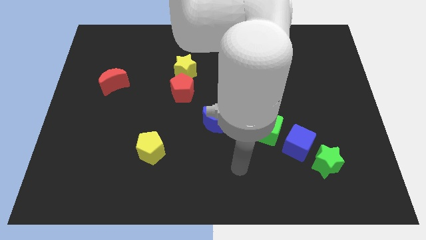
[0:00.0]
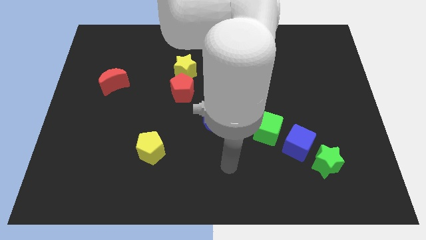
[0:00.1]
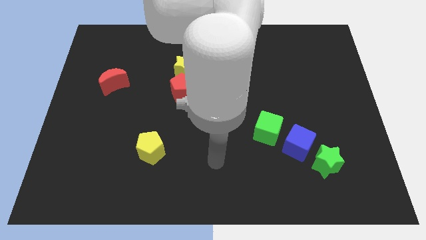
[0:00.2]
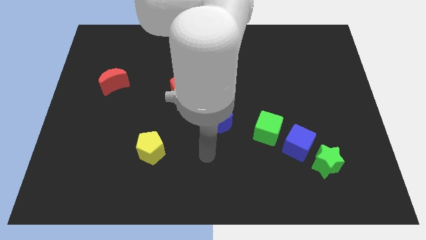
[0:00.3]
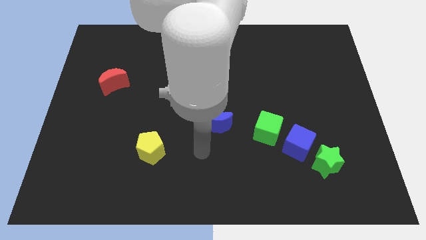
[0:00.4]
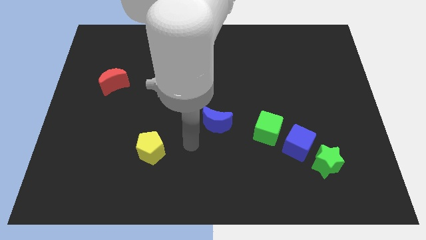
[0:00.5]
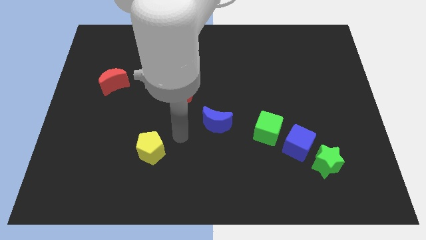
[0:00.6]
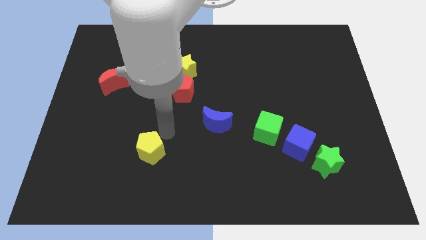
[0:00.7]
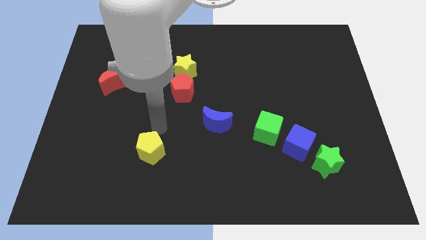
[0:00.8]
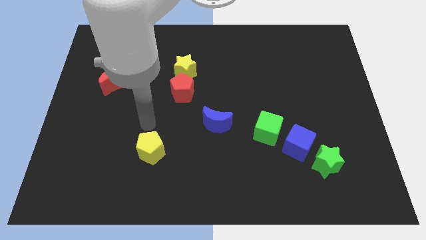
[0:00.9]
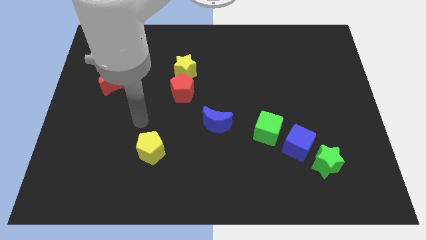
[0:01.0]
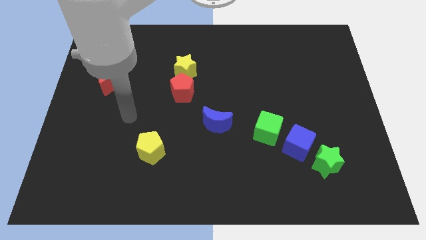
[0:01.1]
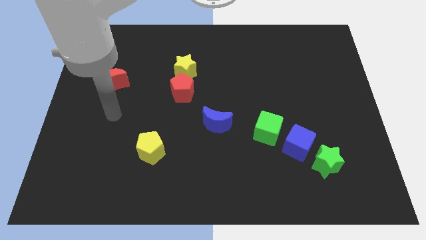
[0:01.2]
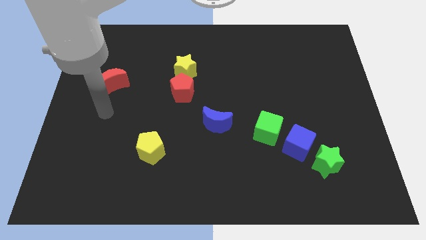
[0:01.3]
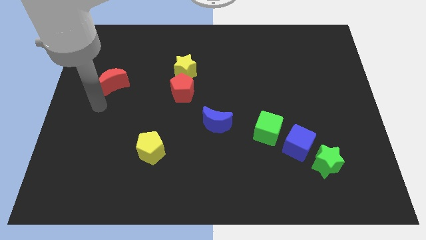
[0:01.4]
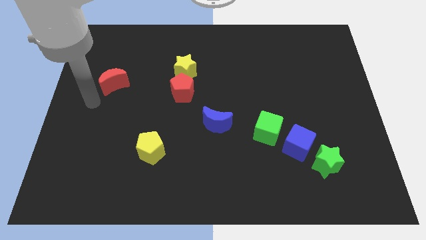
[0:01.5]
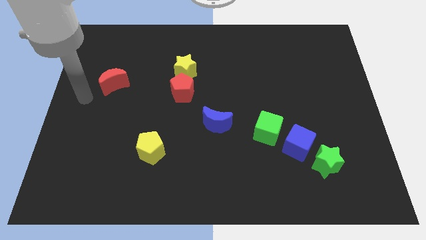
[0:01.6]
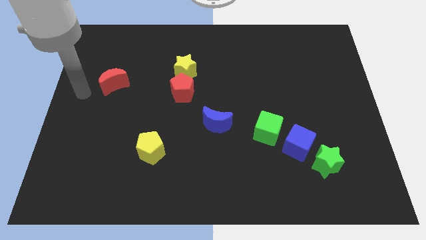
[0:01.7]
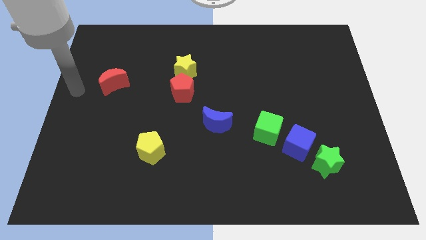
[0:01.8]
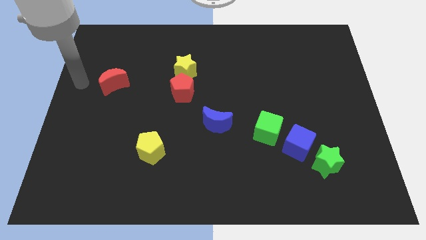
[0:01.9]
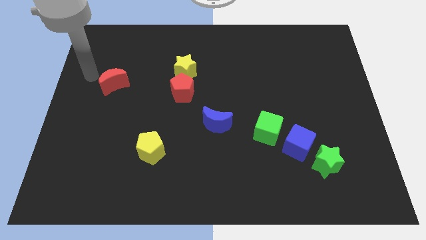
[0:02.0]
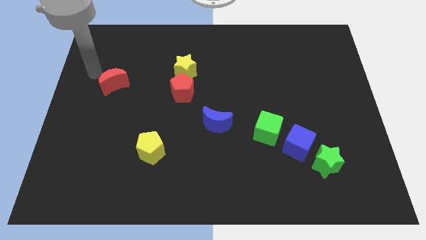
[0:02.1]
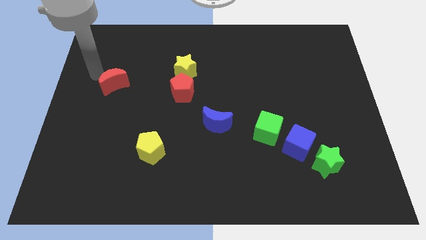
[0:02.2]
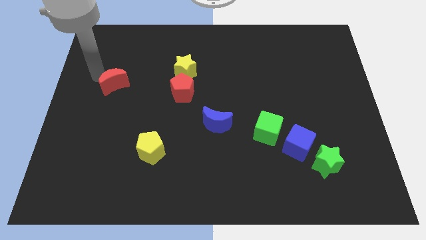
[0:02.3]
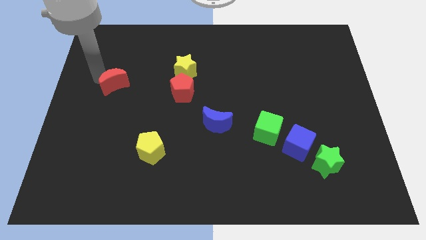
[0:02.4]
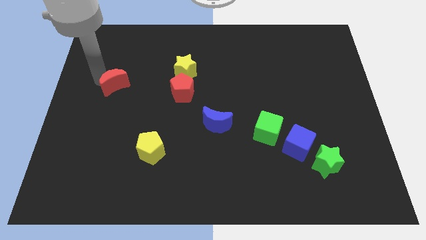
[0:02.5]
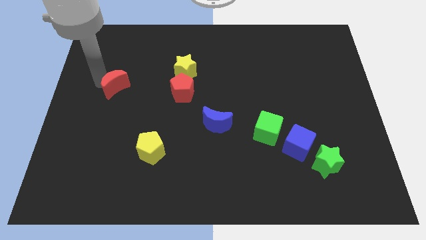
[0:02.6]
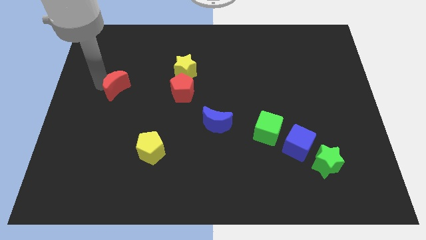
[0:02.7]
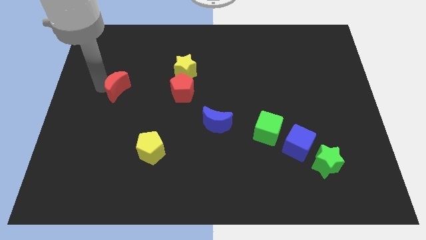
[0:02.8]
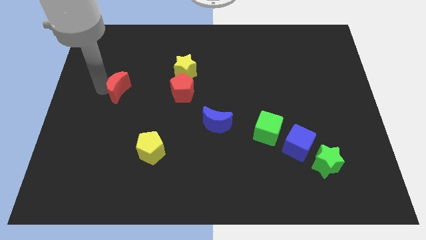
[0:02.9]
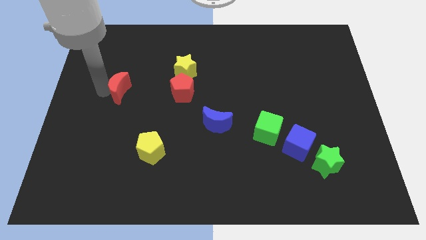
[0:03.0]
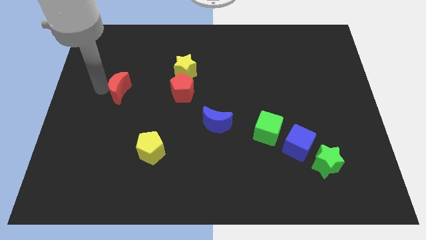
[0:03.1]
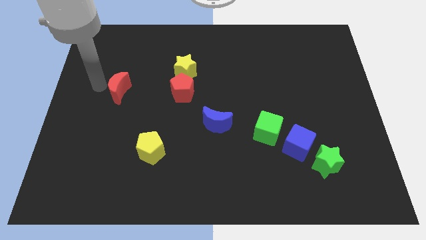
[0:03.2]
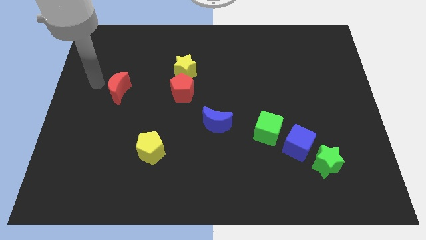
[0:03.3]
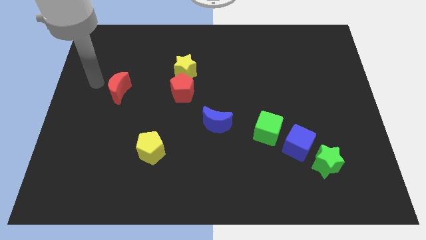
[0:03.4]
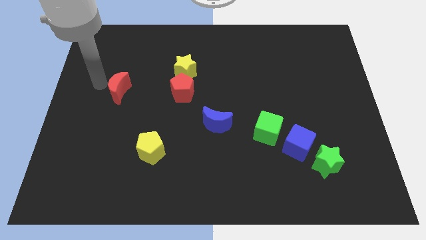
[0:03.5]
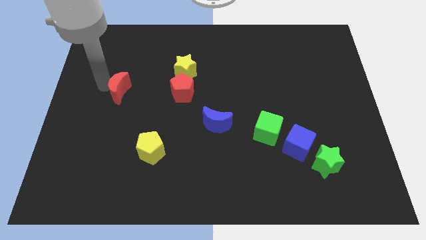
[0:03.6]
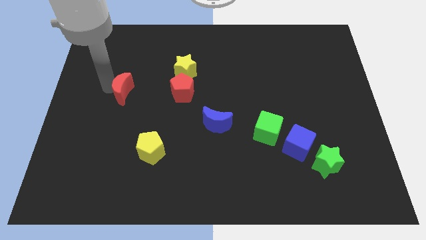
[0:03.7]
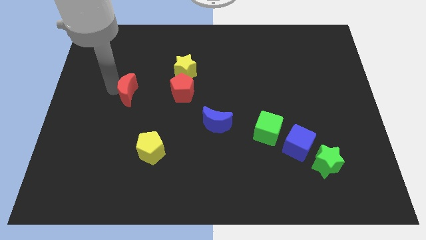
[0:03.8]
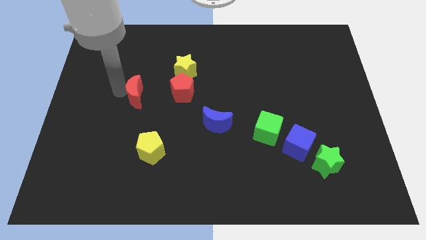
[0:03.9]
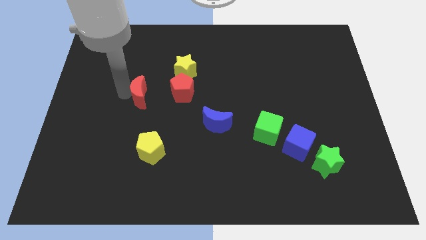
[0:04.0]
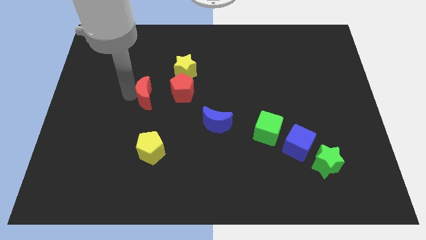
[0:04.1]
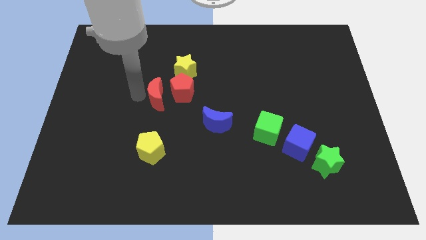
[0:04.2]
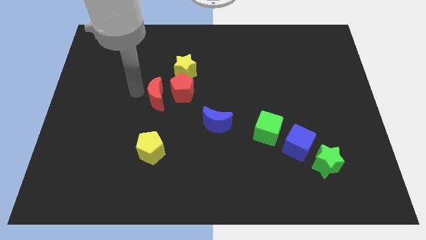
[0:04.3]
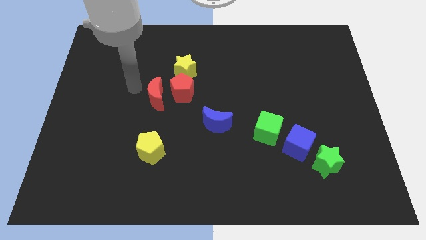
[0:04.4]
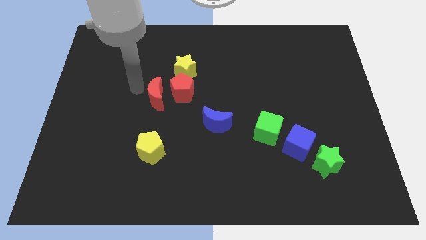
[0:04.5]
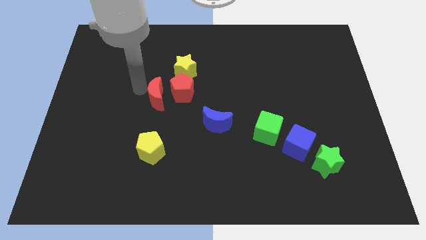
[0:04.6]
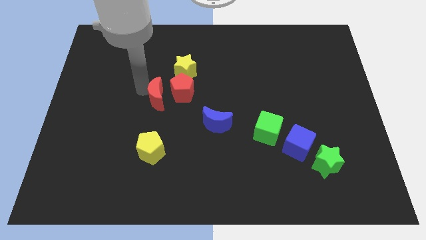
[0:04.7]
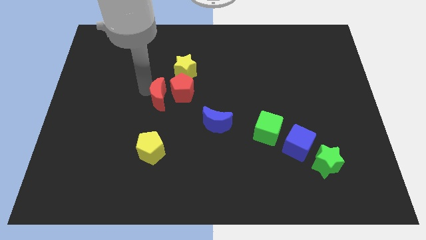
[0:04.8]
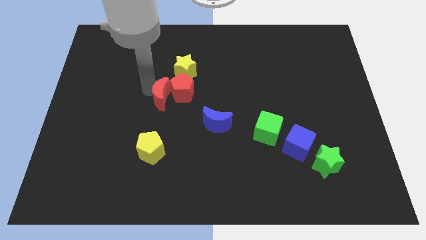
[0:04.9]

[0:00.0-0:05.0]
push the red moon to the center

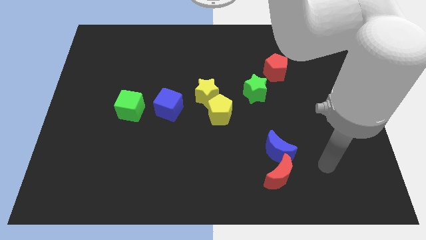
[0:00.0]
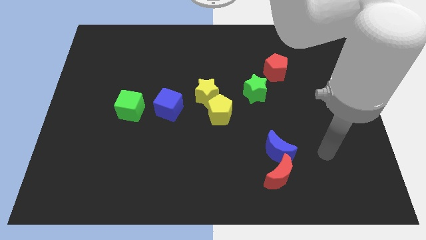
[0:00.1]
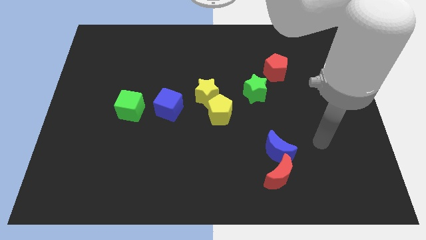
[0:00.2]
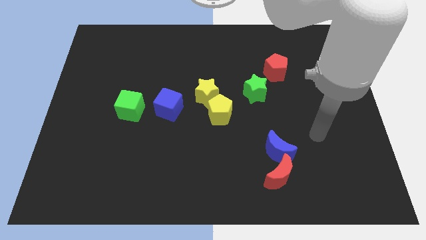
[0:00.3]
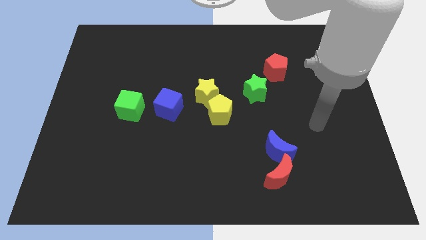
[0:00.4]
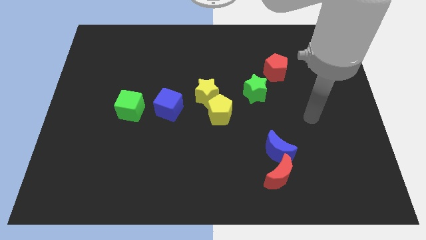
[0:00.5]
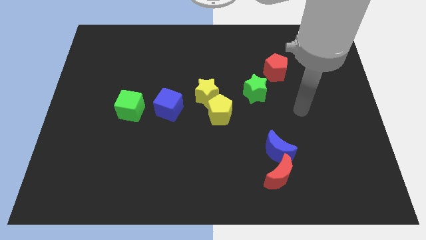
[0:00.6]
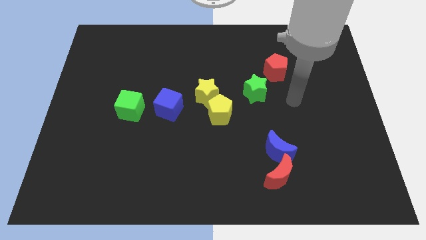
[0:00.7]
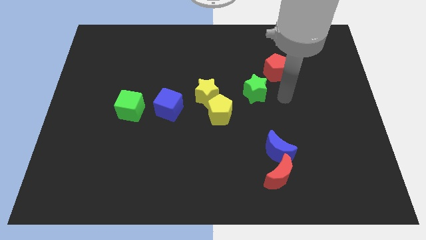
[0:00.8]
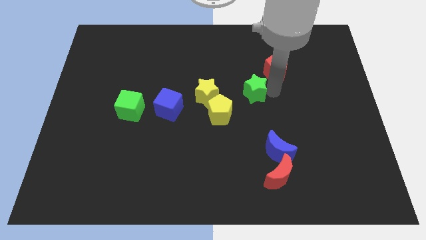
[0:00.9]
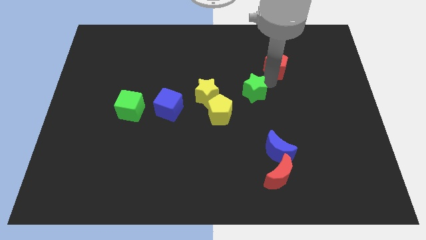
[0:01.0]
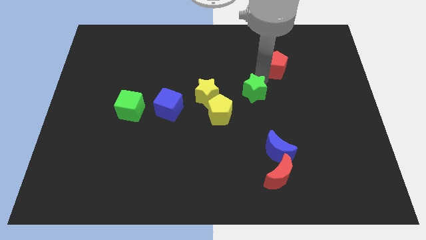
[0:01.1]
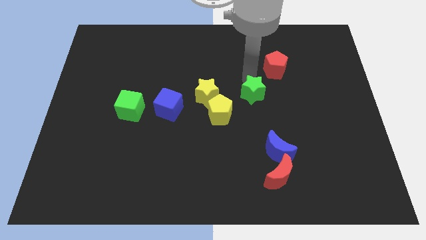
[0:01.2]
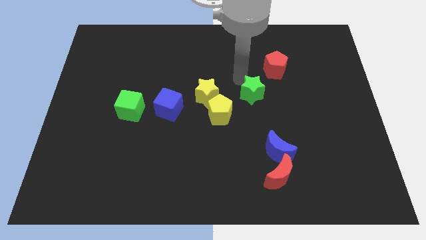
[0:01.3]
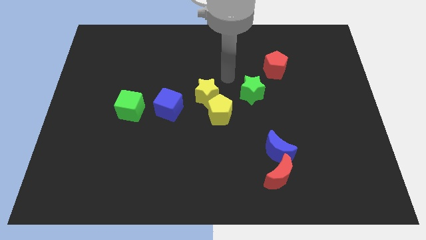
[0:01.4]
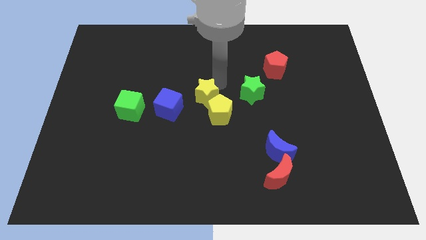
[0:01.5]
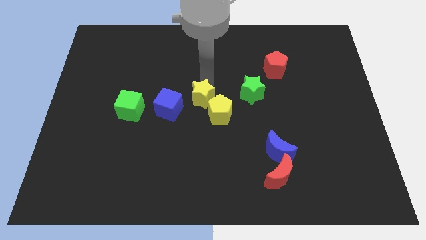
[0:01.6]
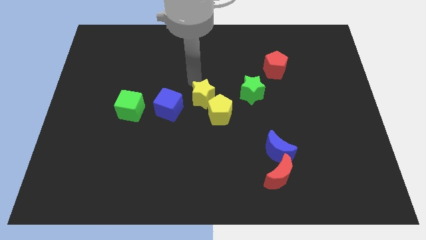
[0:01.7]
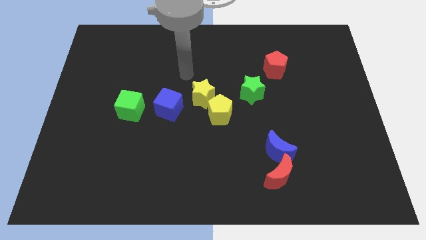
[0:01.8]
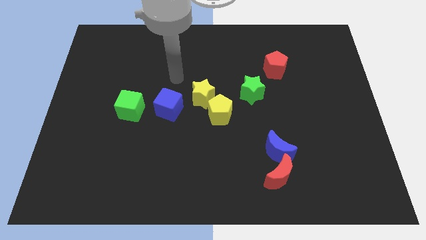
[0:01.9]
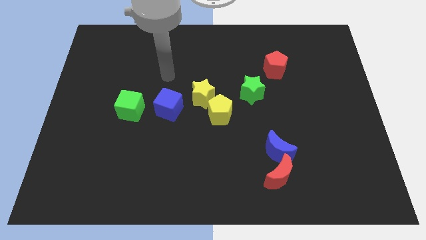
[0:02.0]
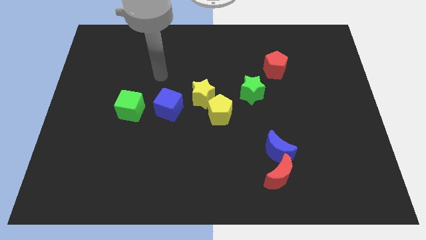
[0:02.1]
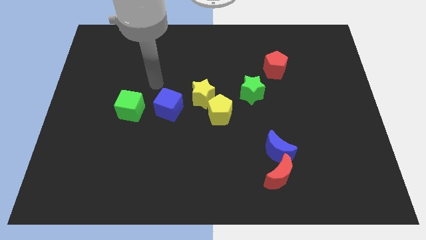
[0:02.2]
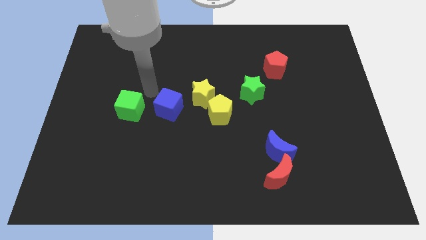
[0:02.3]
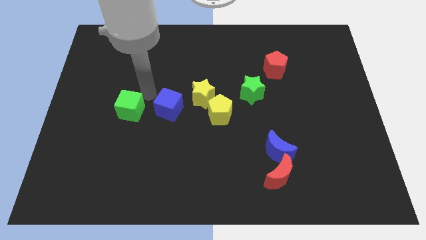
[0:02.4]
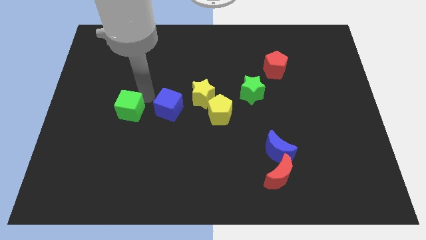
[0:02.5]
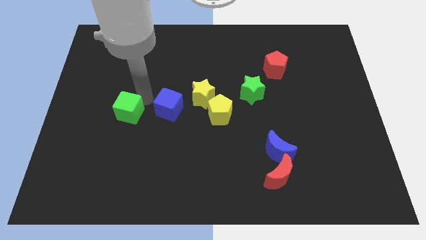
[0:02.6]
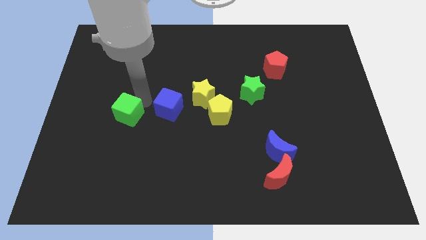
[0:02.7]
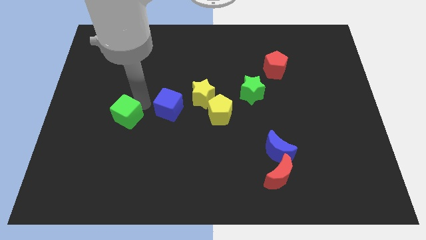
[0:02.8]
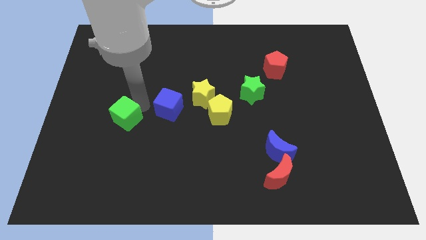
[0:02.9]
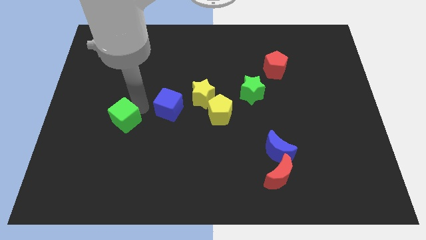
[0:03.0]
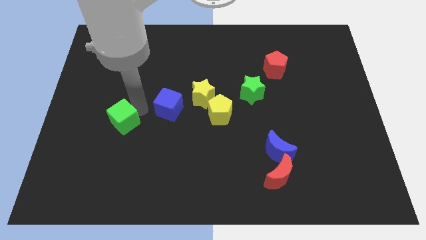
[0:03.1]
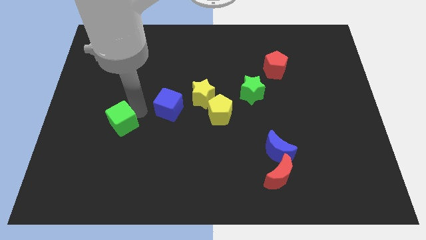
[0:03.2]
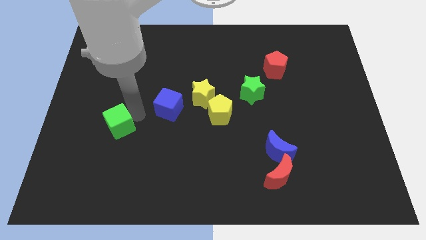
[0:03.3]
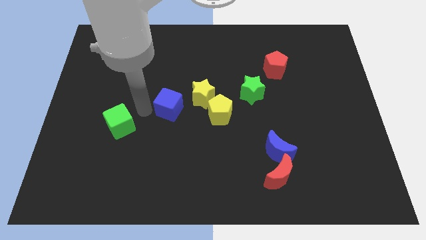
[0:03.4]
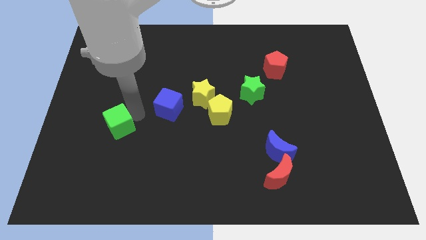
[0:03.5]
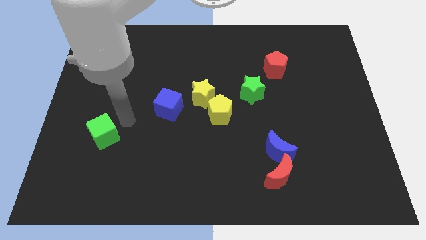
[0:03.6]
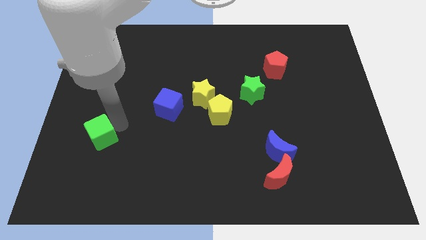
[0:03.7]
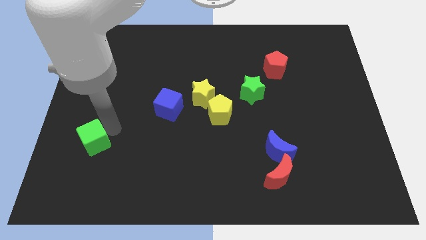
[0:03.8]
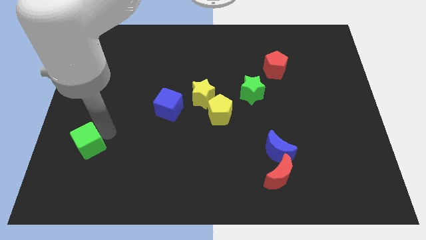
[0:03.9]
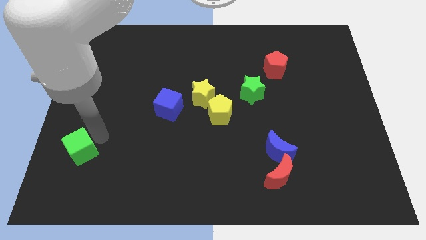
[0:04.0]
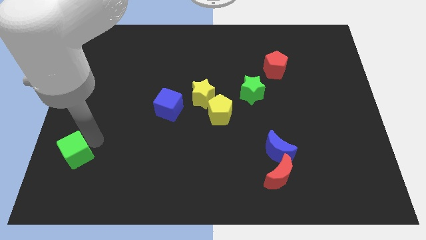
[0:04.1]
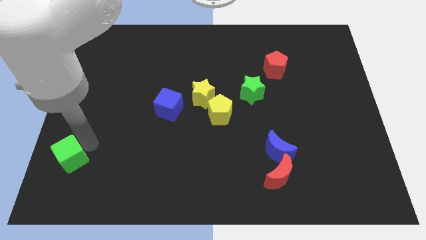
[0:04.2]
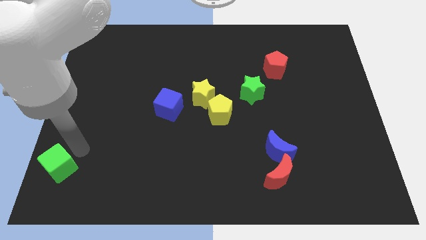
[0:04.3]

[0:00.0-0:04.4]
slide the green cube to the lower left corner
